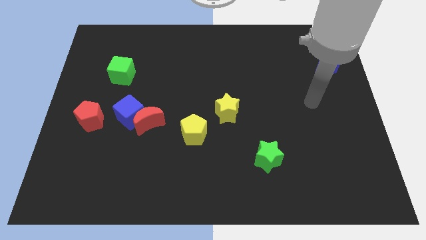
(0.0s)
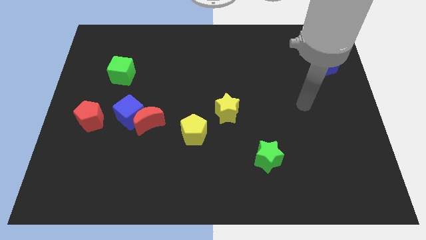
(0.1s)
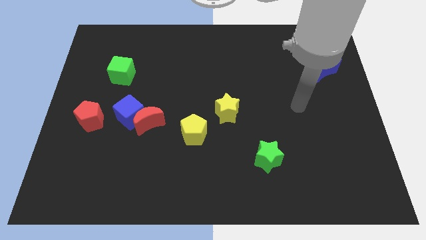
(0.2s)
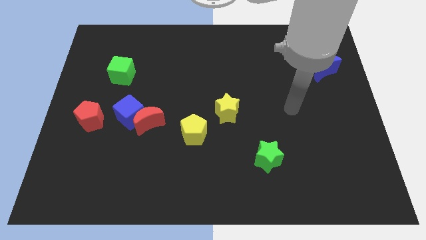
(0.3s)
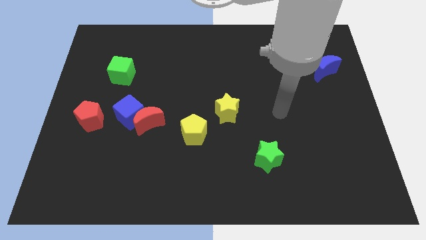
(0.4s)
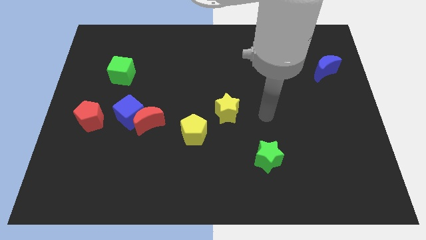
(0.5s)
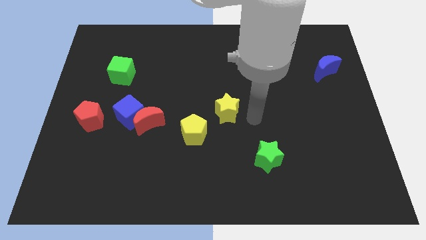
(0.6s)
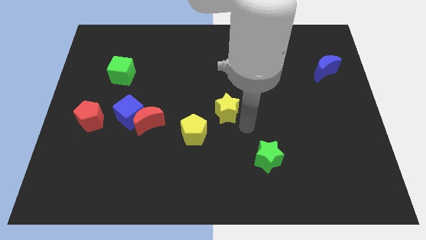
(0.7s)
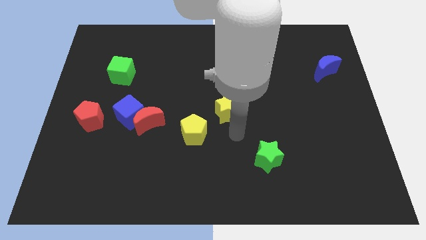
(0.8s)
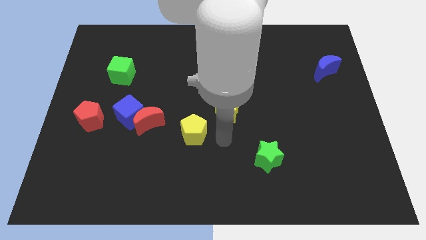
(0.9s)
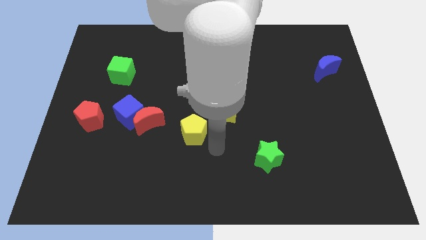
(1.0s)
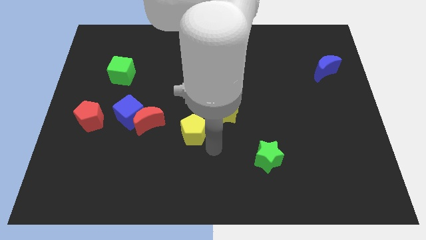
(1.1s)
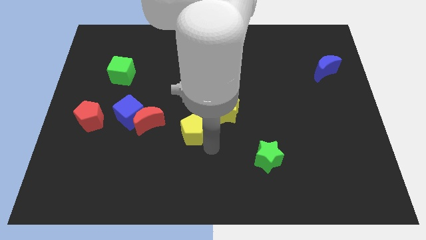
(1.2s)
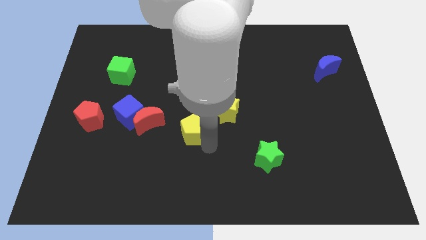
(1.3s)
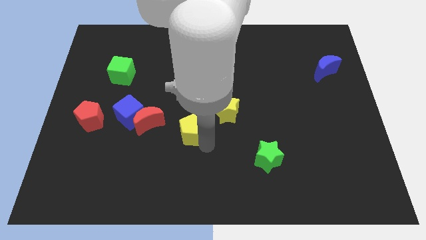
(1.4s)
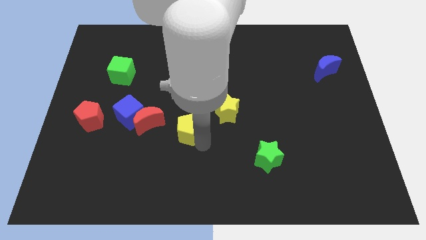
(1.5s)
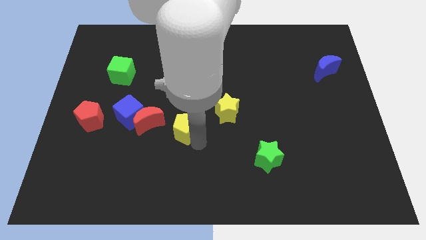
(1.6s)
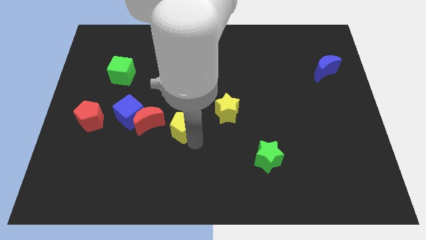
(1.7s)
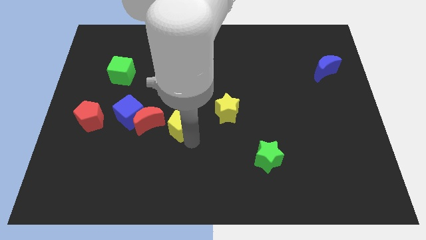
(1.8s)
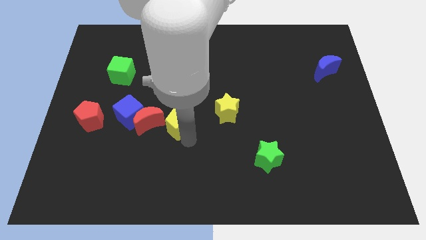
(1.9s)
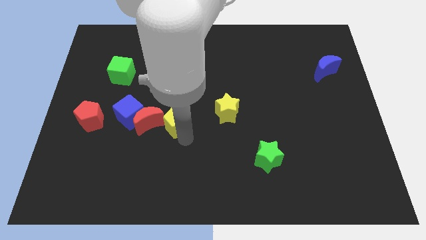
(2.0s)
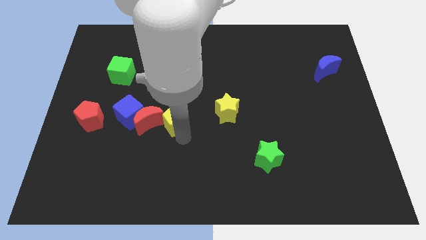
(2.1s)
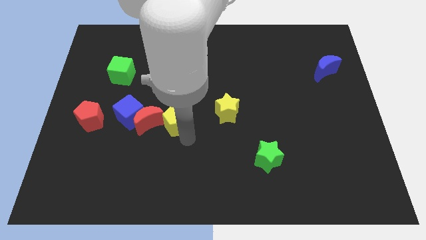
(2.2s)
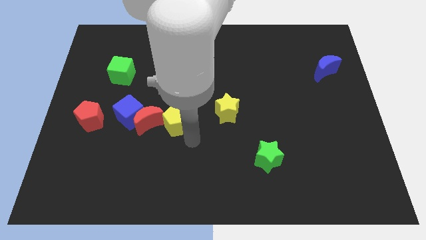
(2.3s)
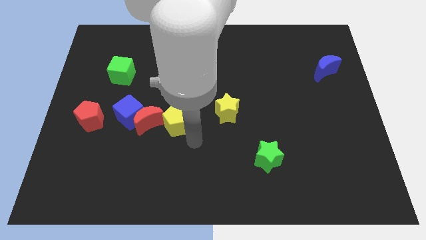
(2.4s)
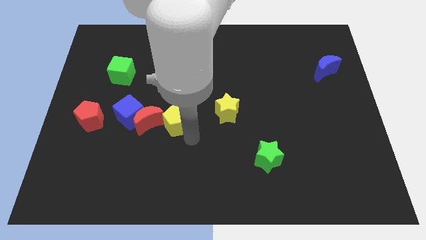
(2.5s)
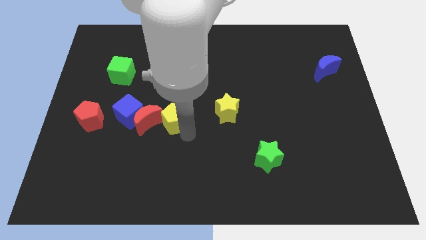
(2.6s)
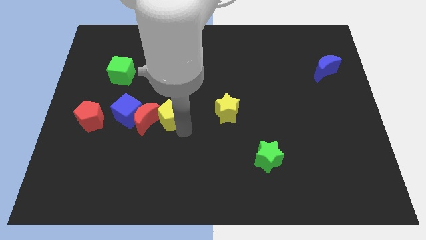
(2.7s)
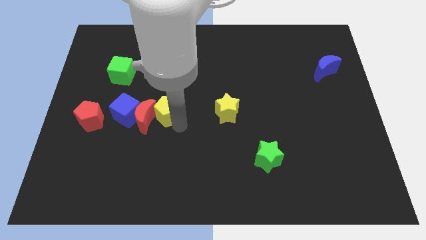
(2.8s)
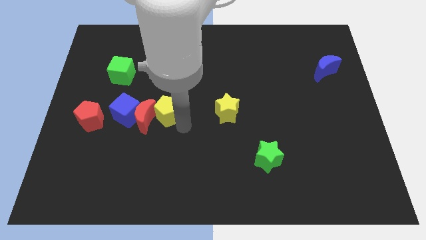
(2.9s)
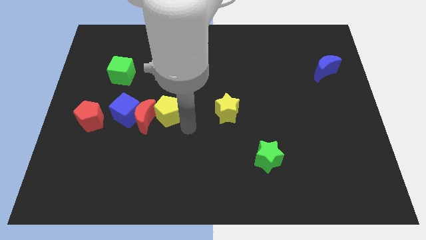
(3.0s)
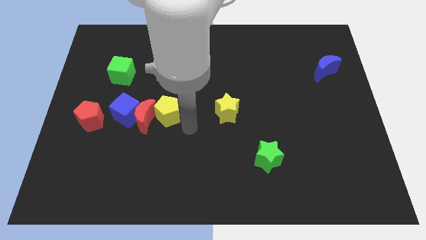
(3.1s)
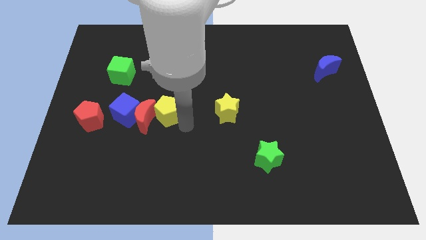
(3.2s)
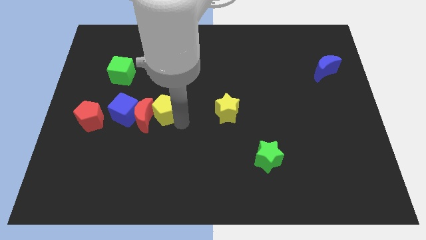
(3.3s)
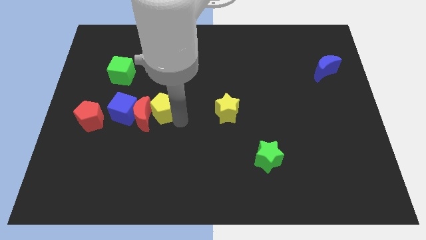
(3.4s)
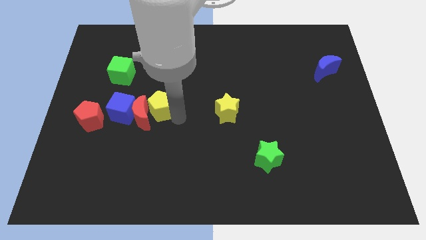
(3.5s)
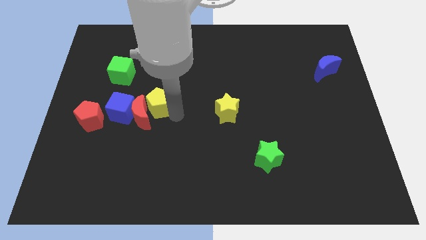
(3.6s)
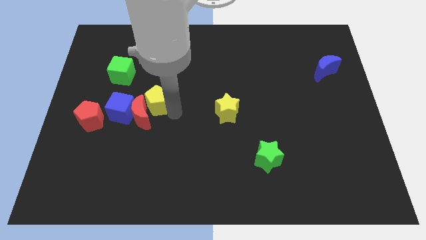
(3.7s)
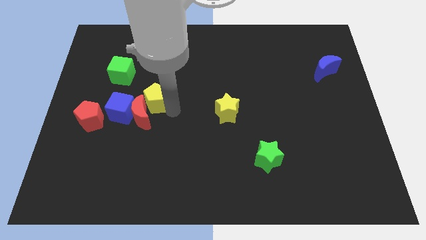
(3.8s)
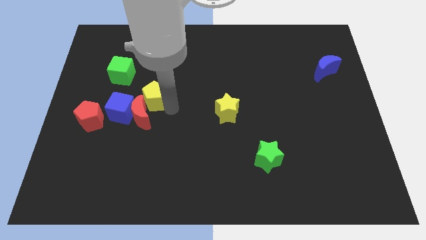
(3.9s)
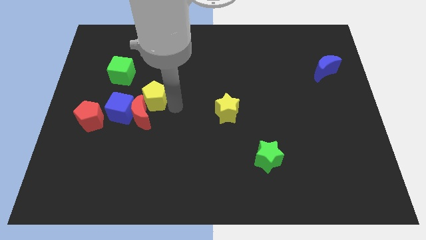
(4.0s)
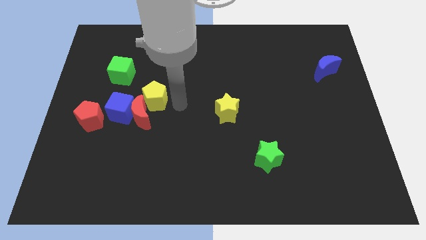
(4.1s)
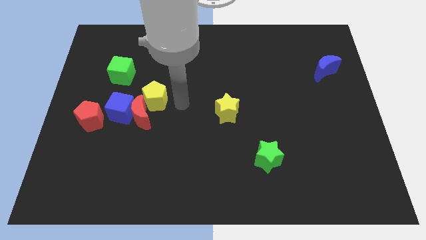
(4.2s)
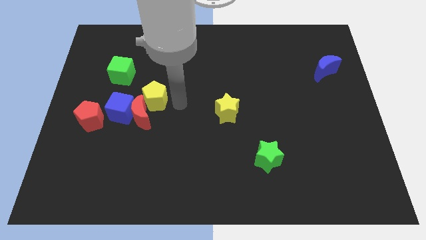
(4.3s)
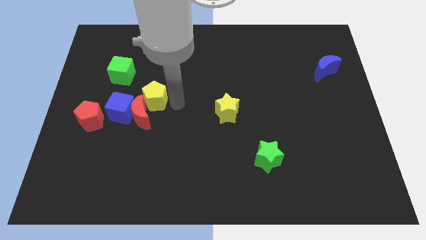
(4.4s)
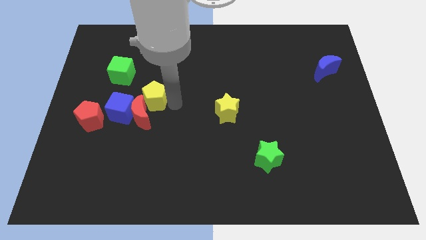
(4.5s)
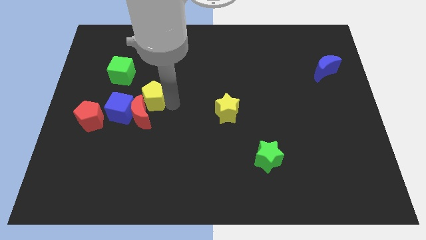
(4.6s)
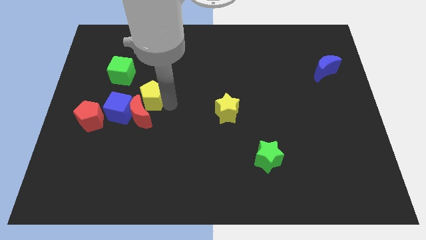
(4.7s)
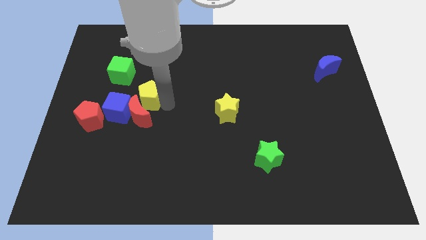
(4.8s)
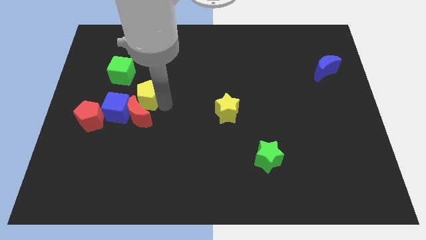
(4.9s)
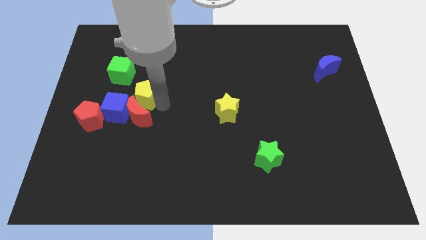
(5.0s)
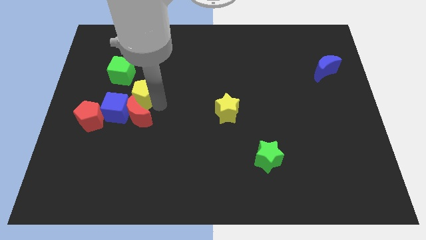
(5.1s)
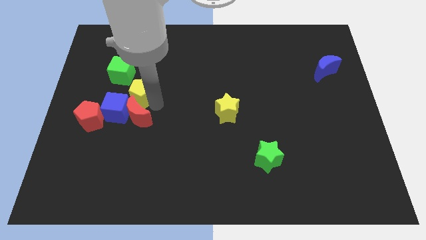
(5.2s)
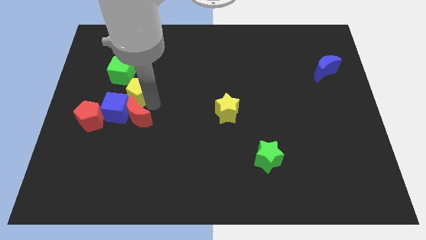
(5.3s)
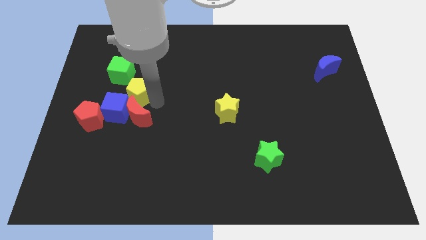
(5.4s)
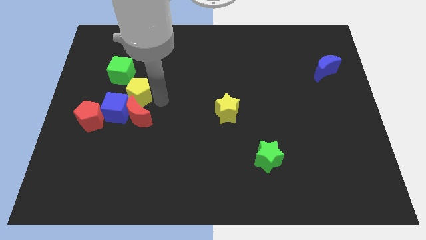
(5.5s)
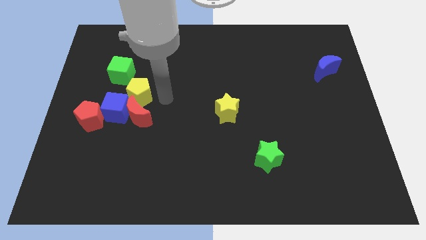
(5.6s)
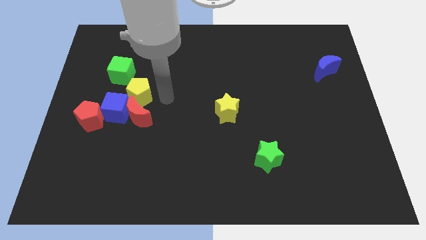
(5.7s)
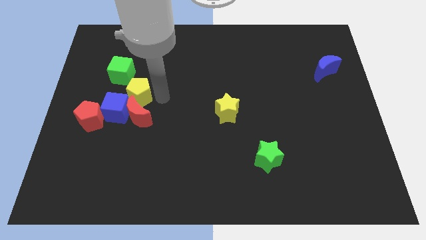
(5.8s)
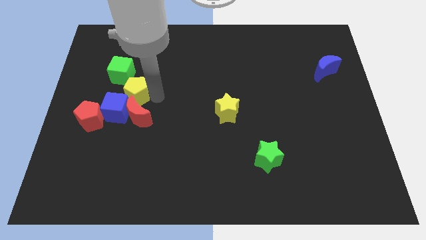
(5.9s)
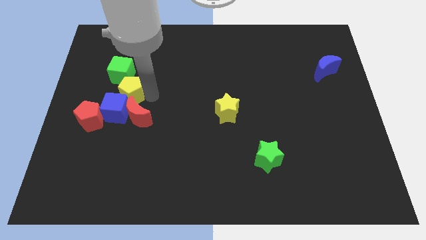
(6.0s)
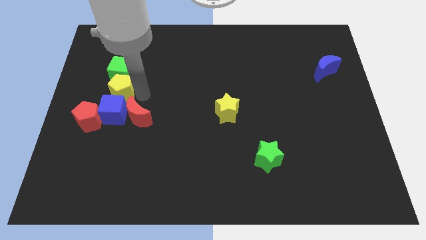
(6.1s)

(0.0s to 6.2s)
move the yellow pentagon upwards and to the left

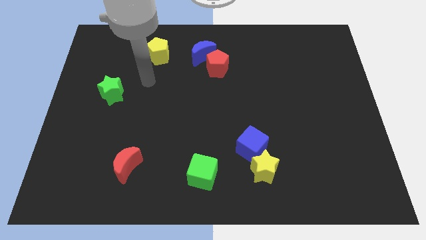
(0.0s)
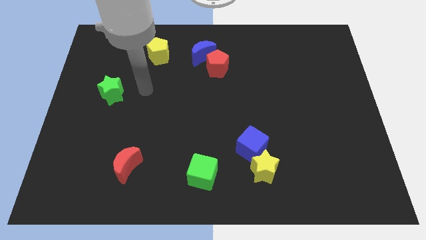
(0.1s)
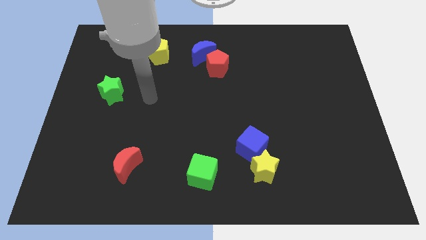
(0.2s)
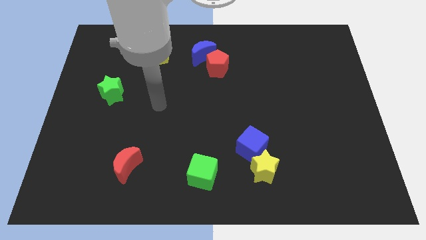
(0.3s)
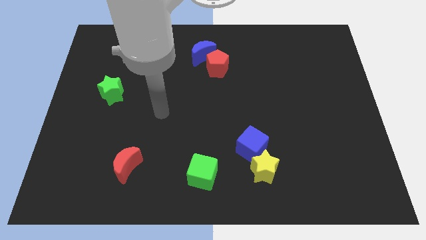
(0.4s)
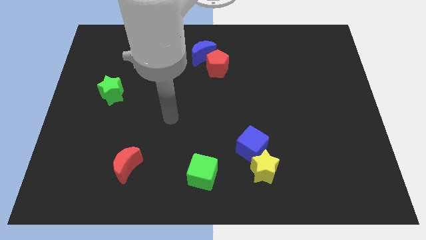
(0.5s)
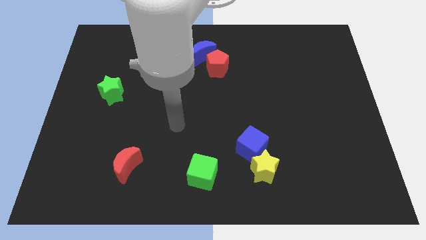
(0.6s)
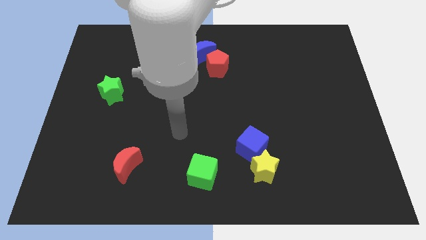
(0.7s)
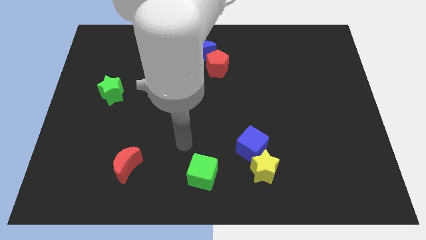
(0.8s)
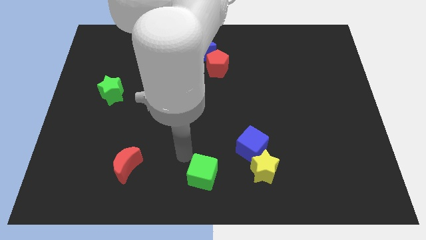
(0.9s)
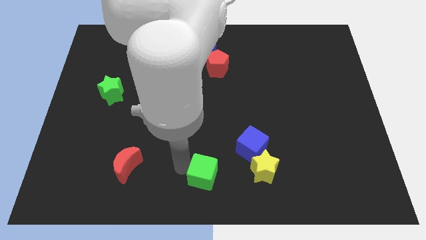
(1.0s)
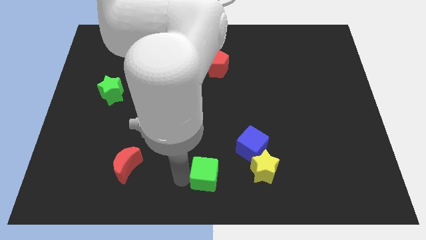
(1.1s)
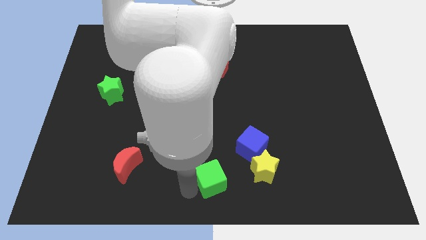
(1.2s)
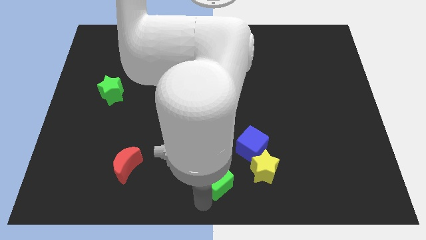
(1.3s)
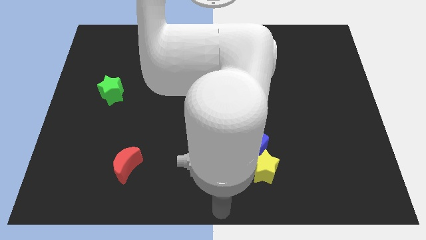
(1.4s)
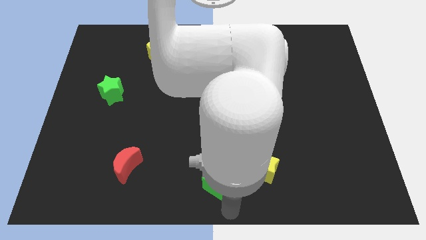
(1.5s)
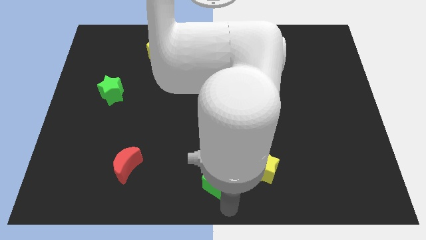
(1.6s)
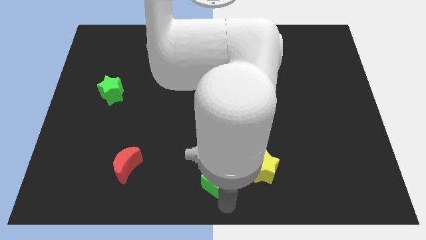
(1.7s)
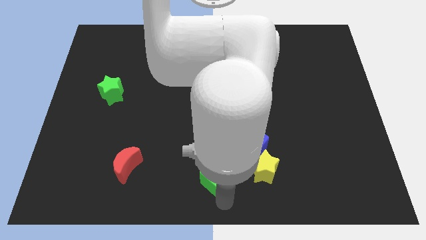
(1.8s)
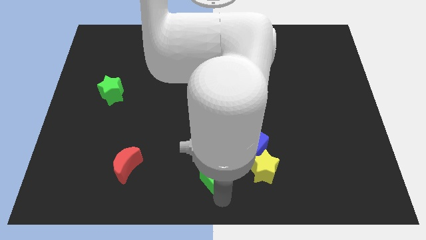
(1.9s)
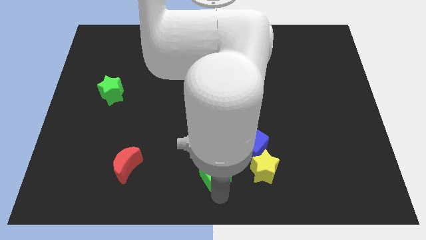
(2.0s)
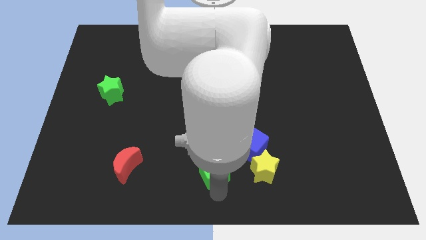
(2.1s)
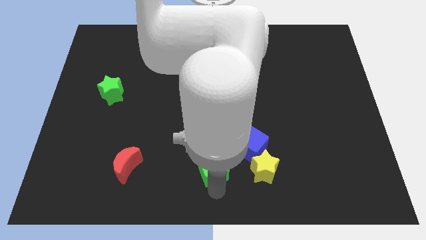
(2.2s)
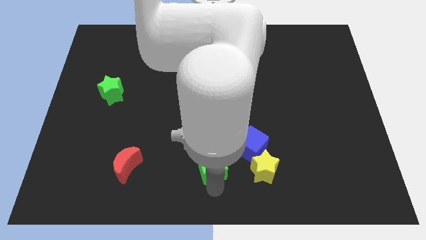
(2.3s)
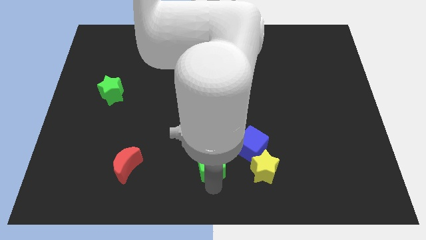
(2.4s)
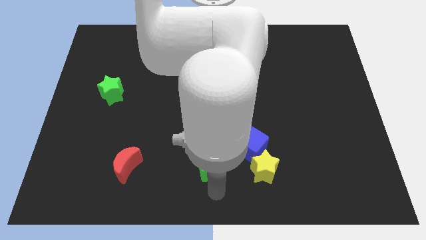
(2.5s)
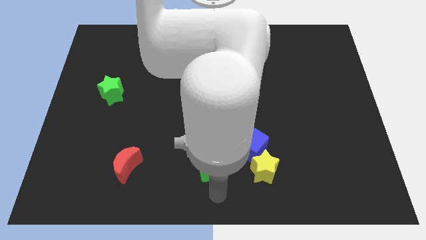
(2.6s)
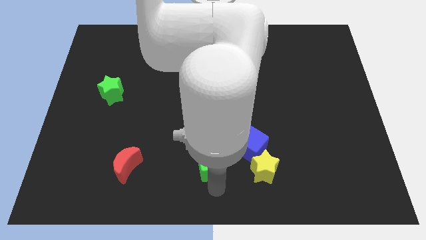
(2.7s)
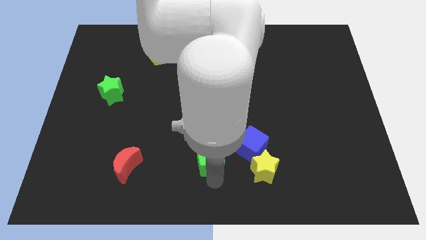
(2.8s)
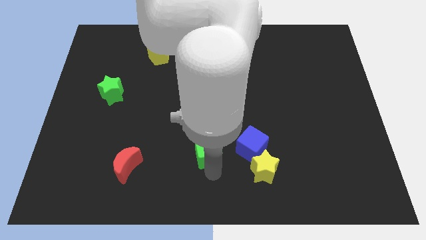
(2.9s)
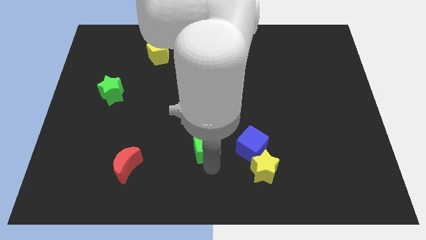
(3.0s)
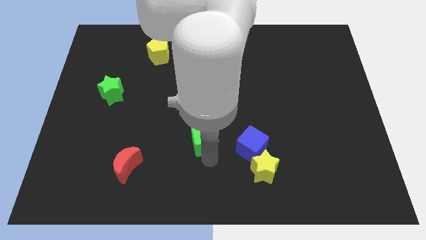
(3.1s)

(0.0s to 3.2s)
slide the green cube up a little
